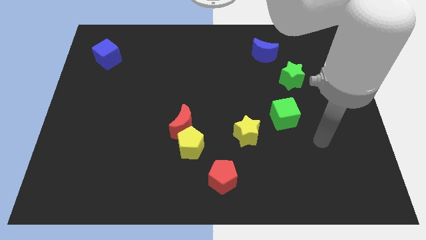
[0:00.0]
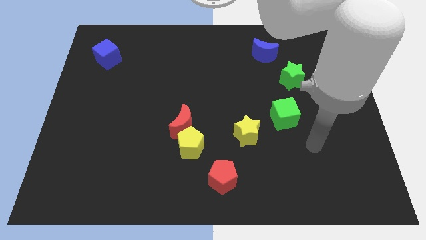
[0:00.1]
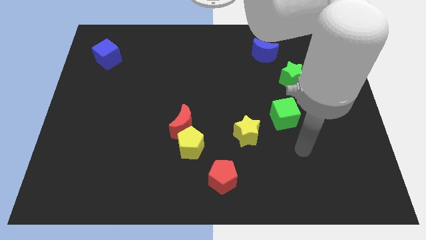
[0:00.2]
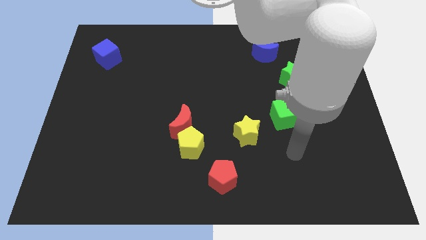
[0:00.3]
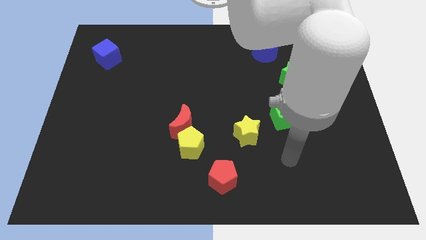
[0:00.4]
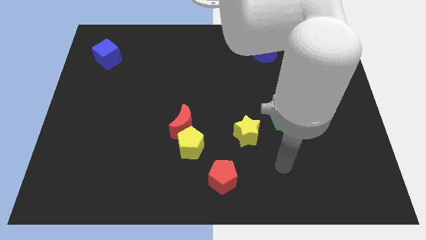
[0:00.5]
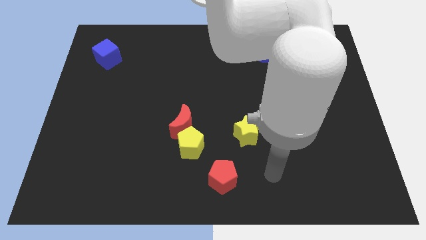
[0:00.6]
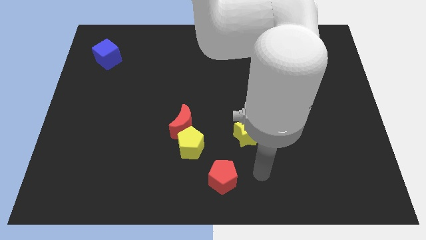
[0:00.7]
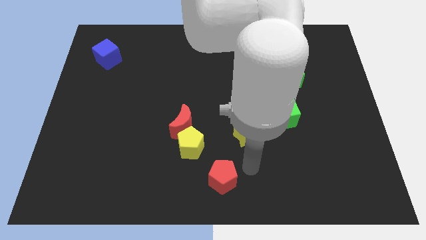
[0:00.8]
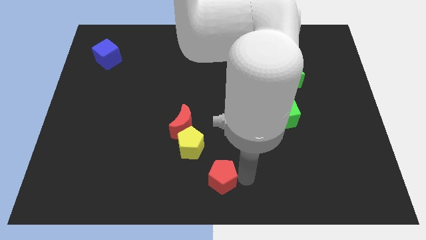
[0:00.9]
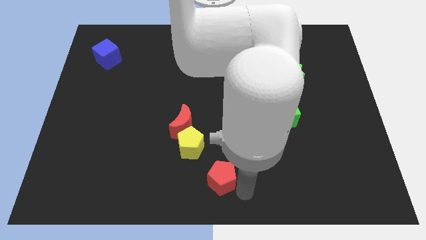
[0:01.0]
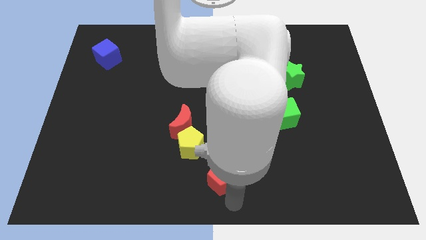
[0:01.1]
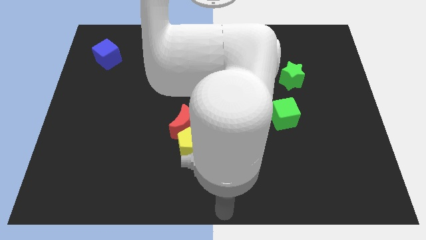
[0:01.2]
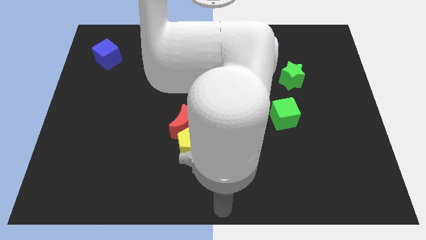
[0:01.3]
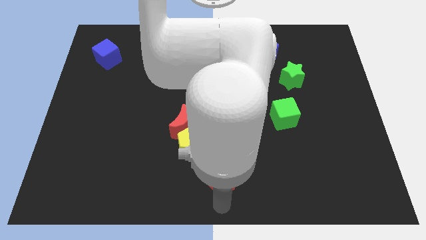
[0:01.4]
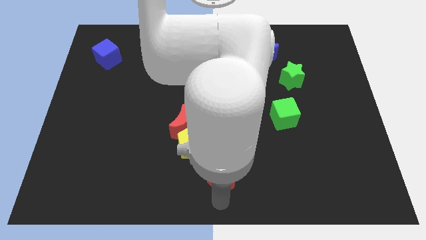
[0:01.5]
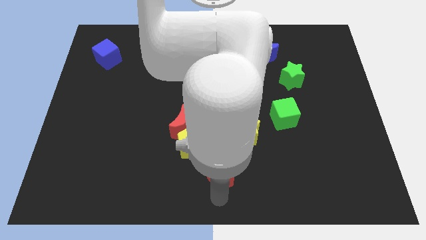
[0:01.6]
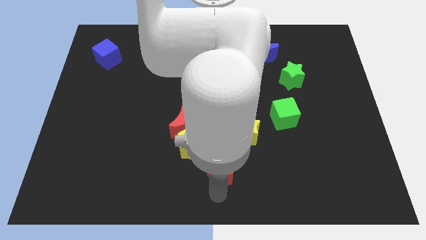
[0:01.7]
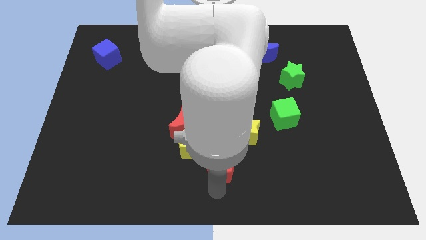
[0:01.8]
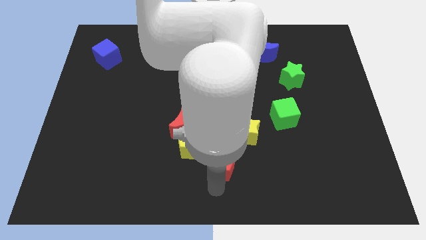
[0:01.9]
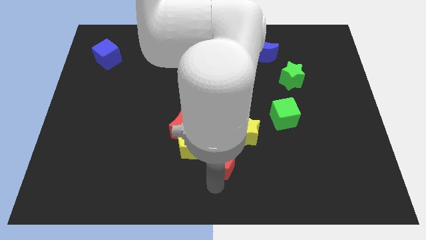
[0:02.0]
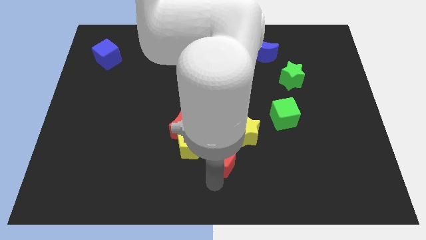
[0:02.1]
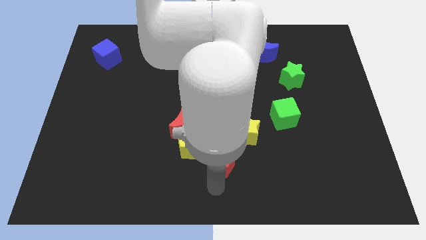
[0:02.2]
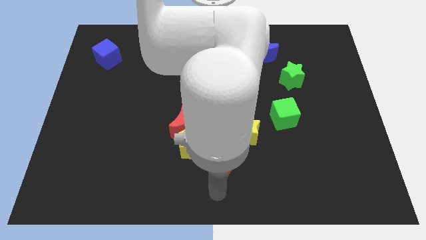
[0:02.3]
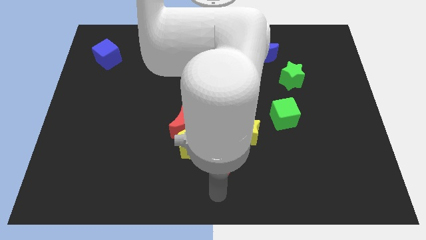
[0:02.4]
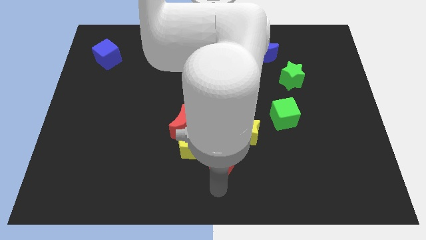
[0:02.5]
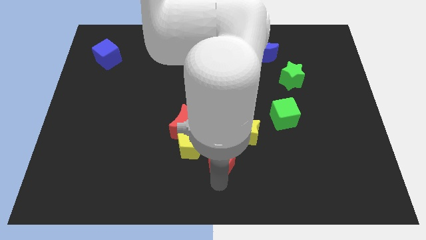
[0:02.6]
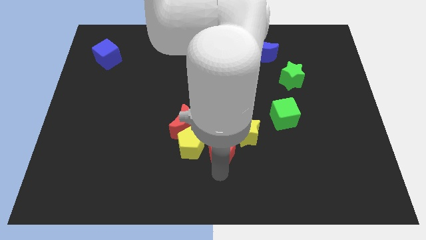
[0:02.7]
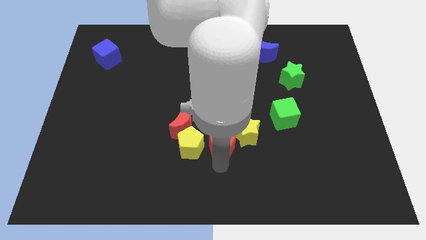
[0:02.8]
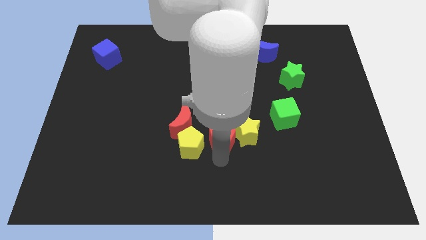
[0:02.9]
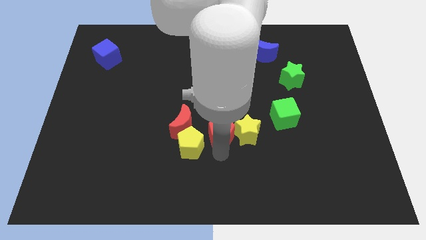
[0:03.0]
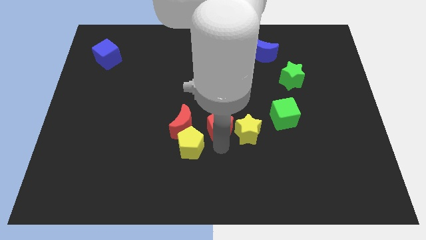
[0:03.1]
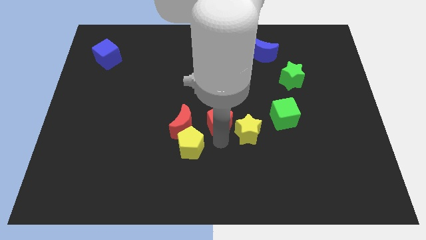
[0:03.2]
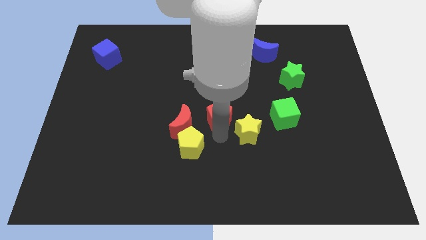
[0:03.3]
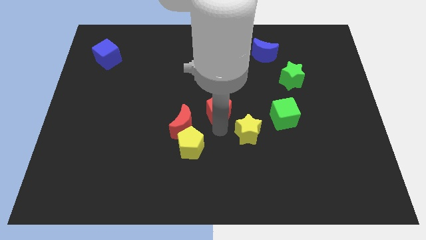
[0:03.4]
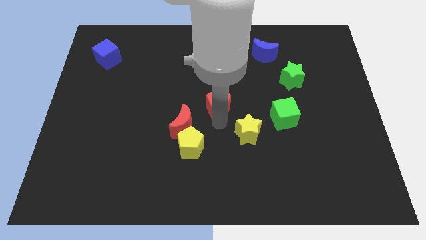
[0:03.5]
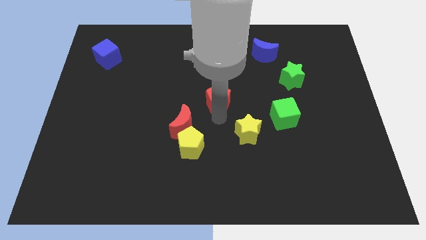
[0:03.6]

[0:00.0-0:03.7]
slide the red pentagon upwards

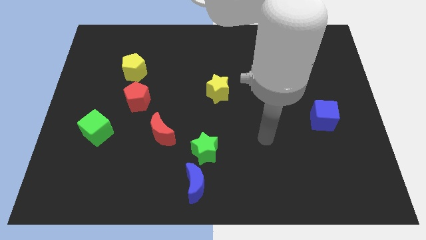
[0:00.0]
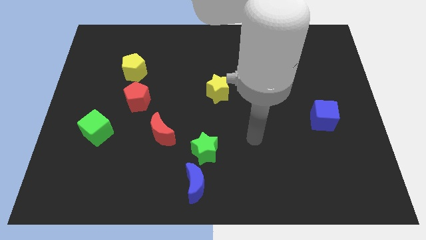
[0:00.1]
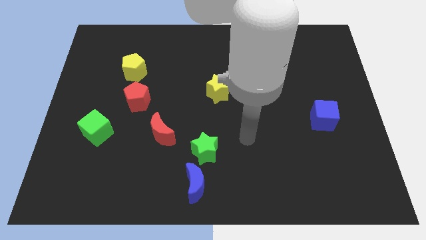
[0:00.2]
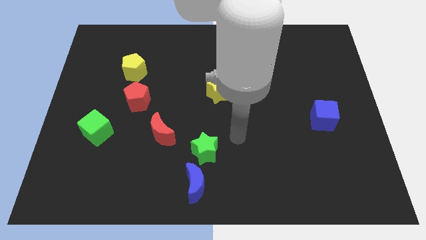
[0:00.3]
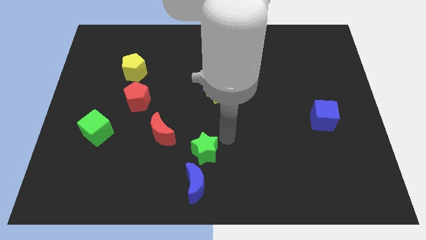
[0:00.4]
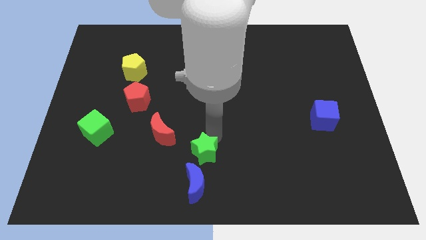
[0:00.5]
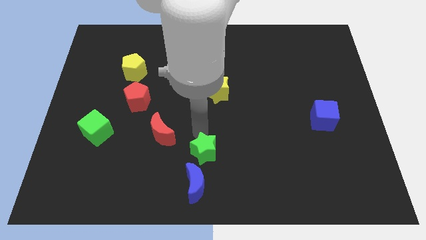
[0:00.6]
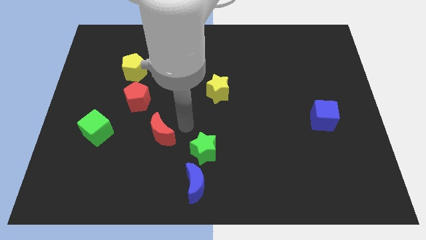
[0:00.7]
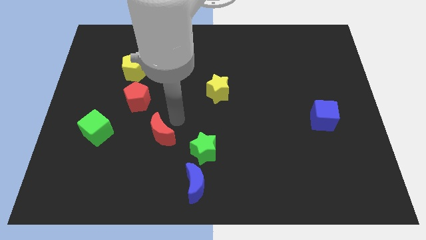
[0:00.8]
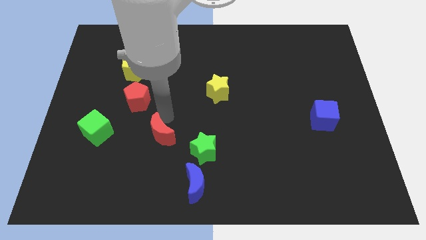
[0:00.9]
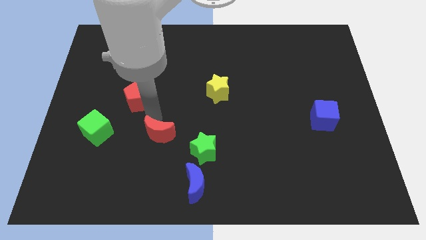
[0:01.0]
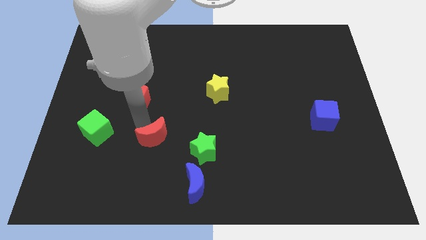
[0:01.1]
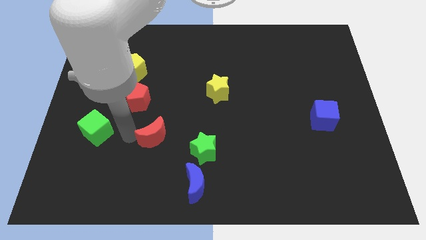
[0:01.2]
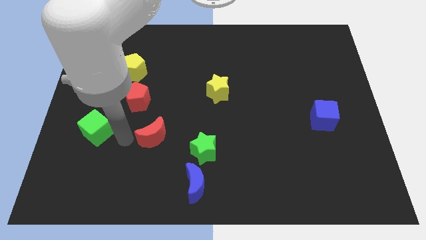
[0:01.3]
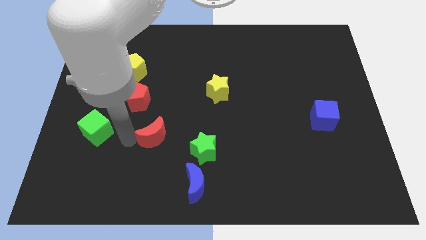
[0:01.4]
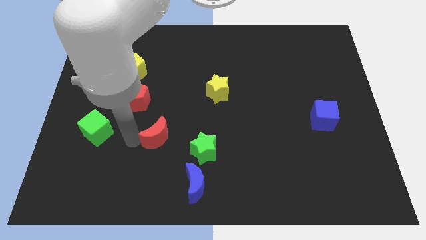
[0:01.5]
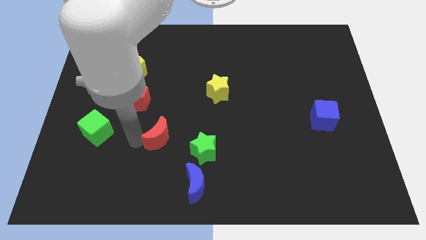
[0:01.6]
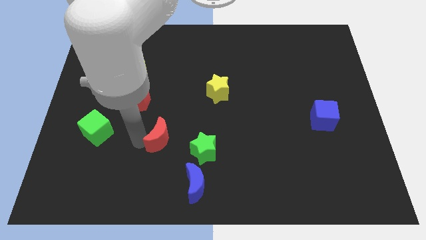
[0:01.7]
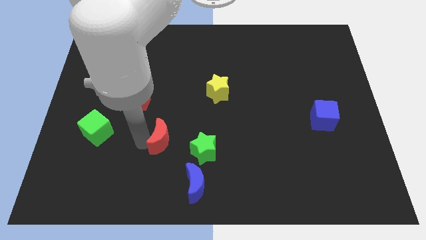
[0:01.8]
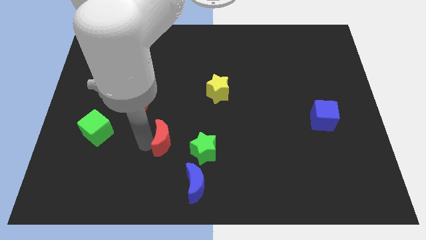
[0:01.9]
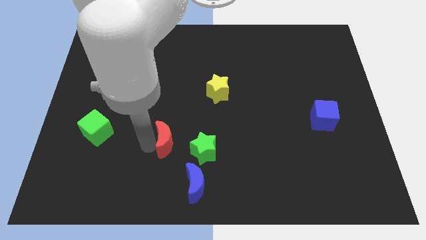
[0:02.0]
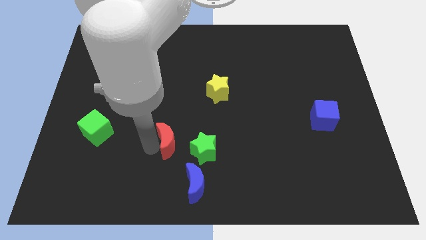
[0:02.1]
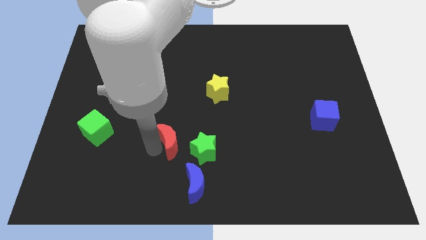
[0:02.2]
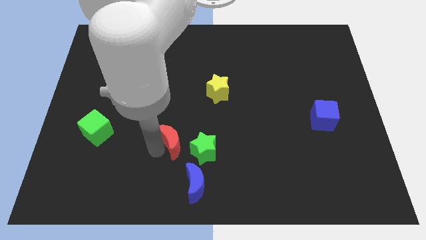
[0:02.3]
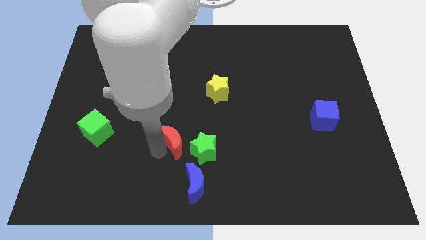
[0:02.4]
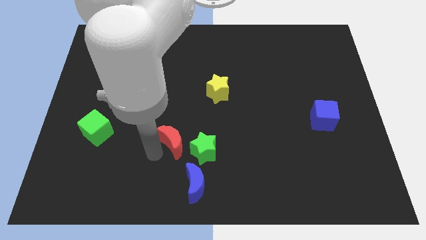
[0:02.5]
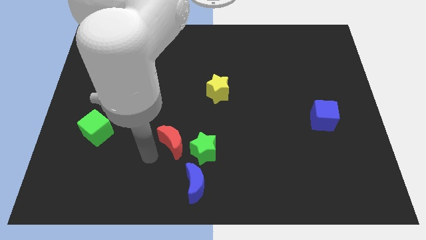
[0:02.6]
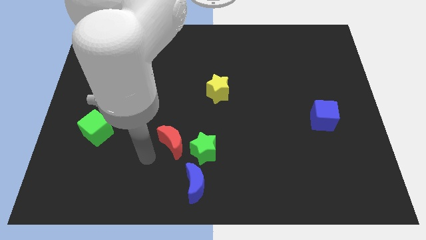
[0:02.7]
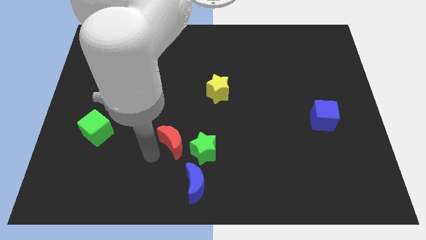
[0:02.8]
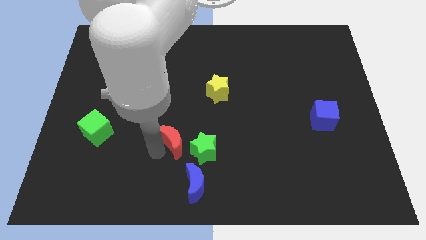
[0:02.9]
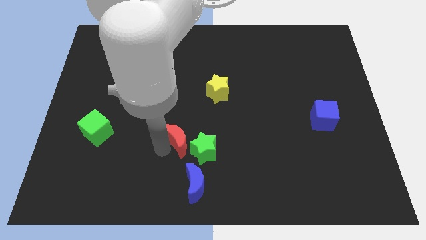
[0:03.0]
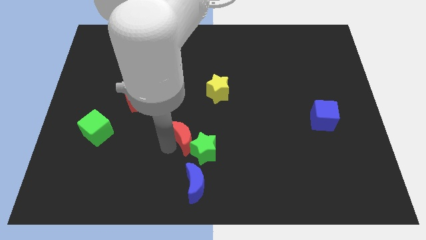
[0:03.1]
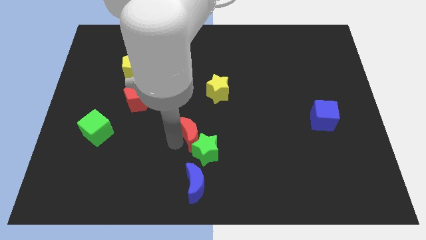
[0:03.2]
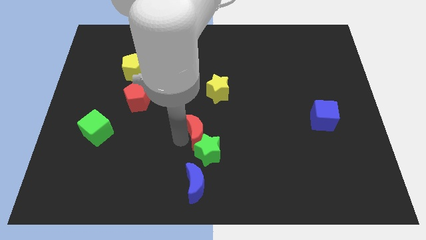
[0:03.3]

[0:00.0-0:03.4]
push the red moon a bit to the right
